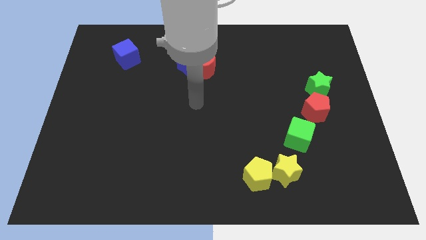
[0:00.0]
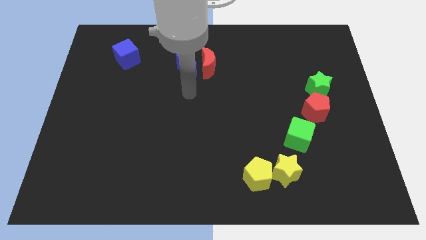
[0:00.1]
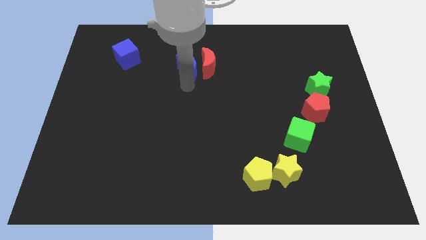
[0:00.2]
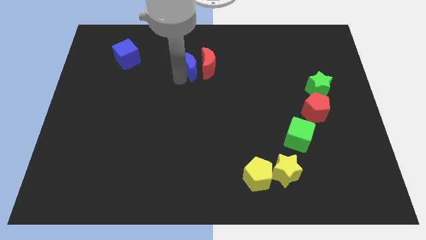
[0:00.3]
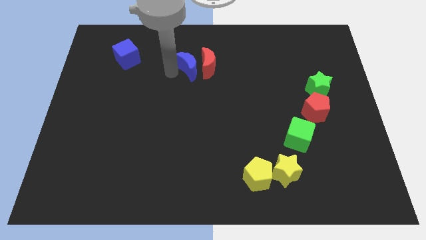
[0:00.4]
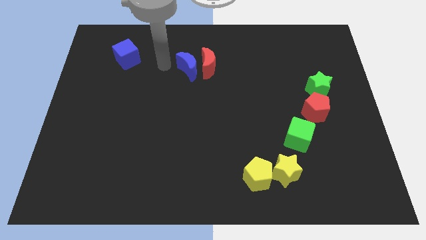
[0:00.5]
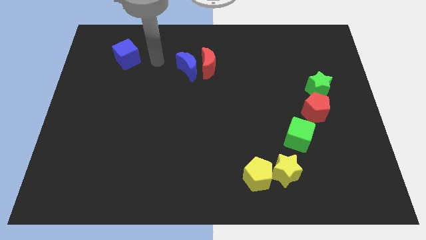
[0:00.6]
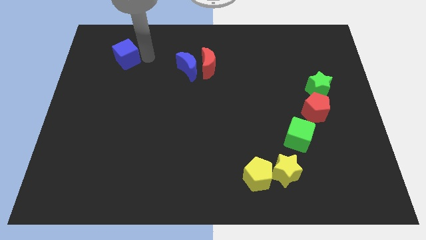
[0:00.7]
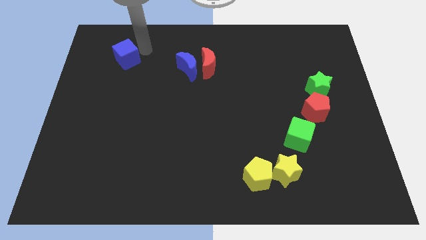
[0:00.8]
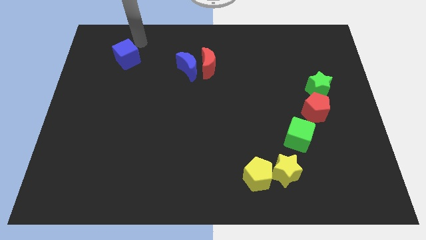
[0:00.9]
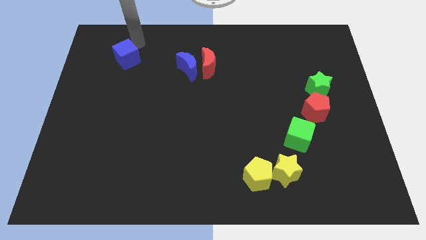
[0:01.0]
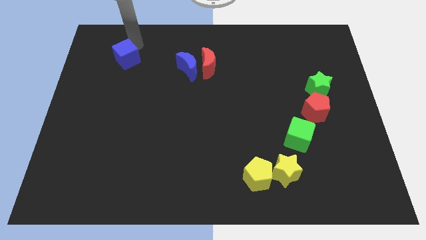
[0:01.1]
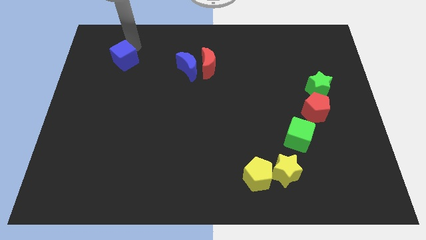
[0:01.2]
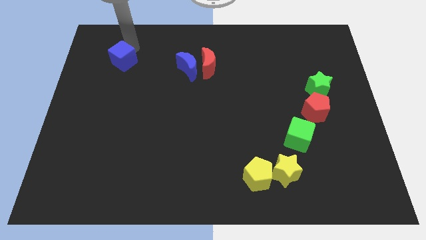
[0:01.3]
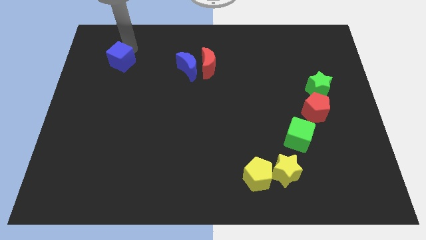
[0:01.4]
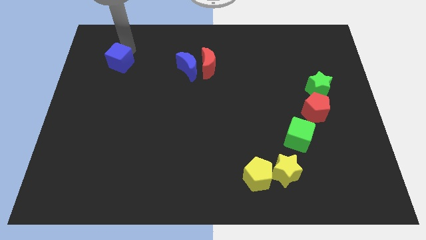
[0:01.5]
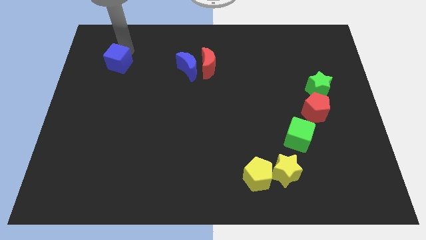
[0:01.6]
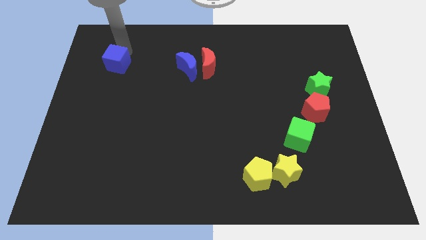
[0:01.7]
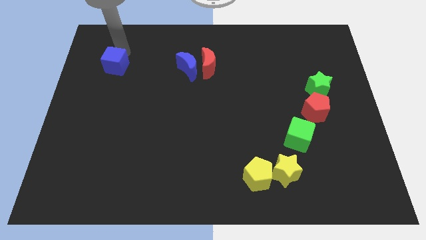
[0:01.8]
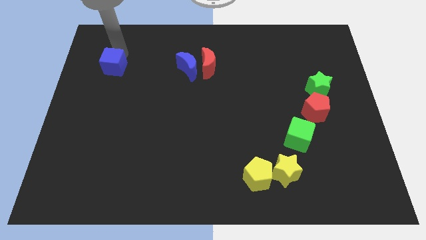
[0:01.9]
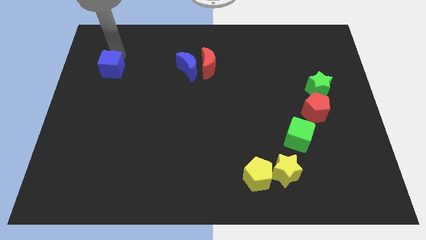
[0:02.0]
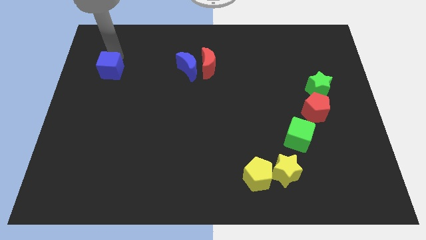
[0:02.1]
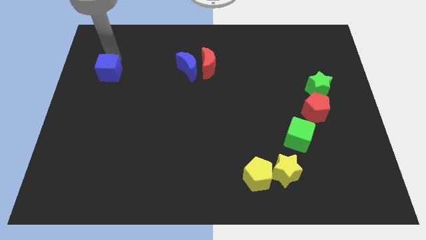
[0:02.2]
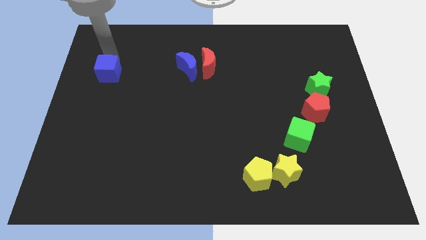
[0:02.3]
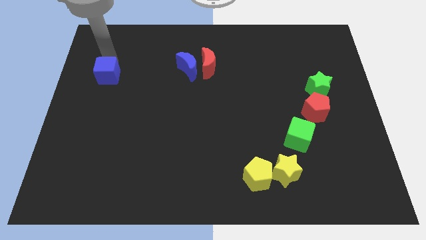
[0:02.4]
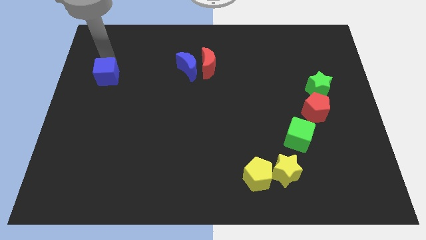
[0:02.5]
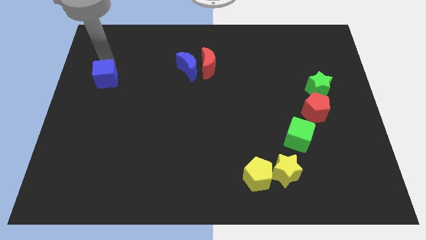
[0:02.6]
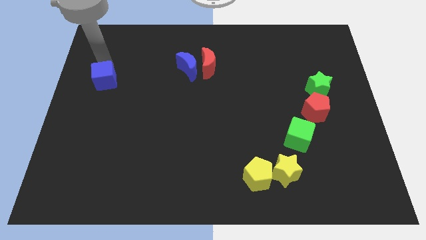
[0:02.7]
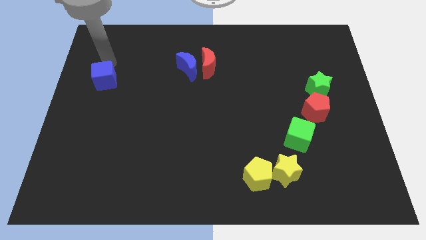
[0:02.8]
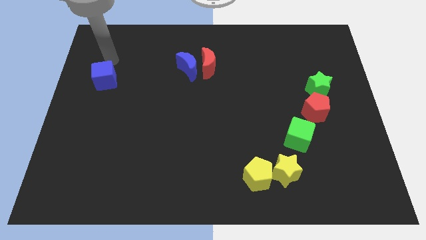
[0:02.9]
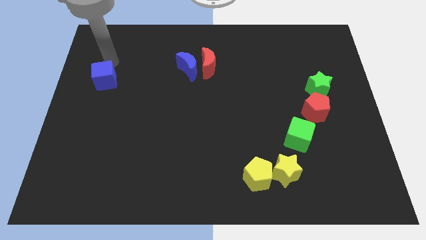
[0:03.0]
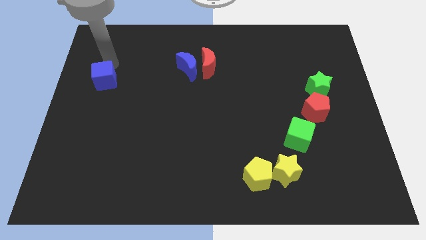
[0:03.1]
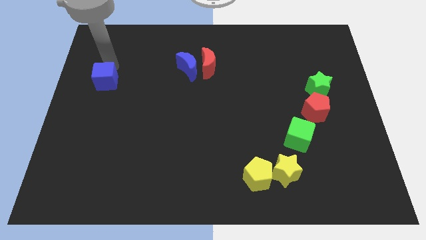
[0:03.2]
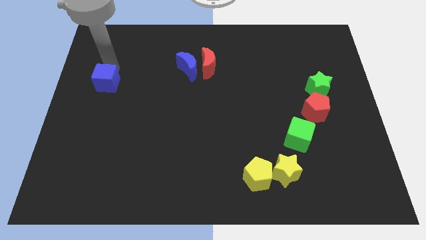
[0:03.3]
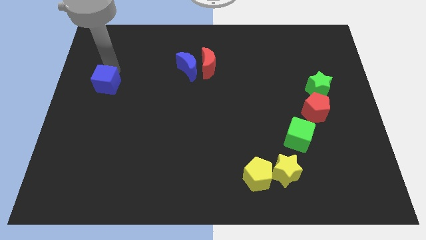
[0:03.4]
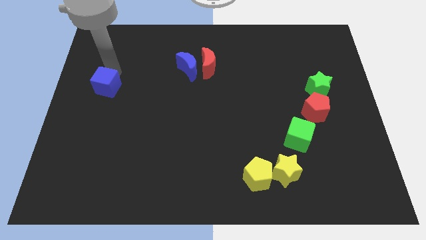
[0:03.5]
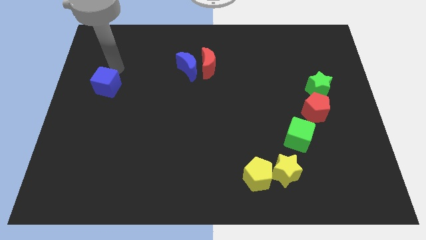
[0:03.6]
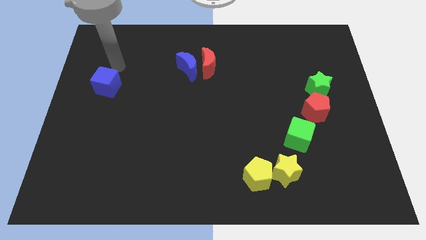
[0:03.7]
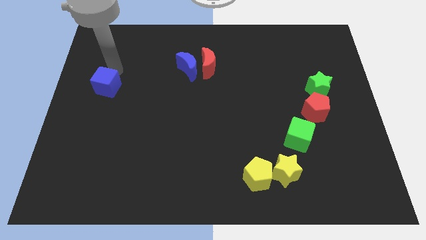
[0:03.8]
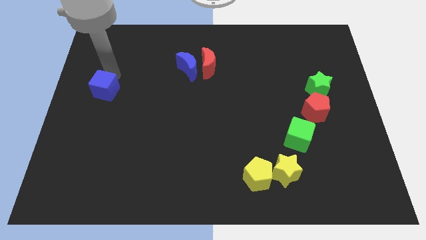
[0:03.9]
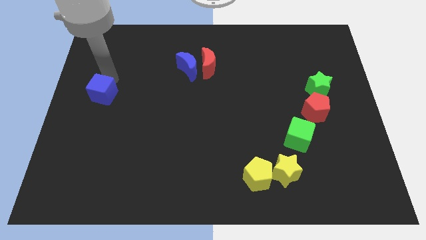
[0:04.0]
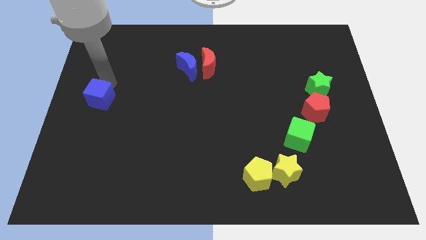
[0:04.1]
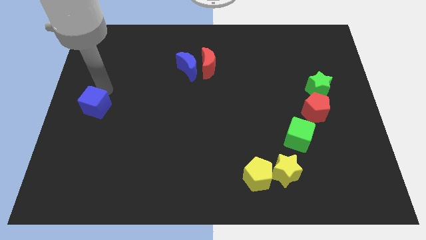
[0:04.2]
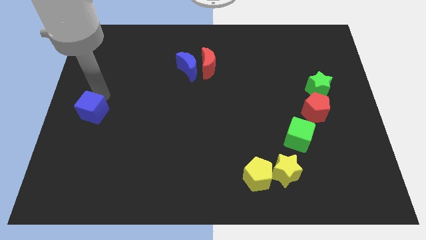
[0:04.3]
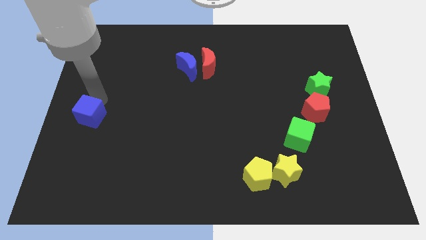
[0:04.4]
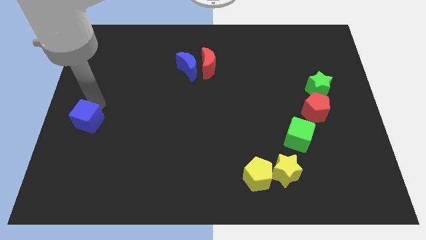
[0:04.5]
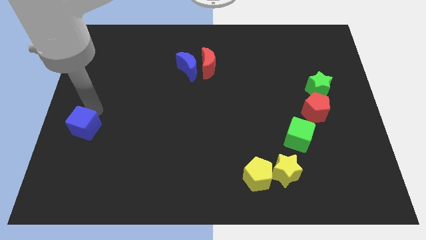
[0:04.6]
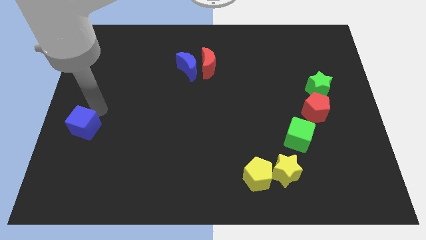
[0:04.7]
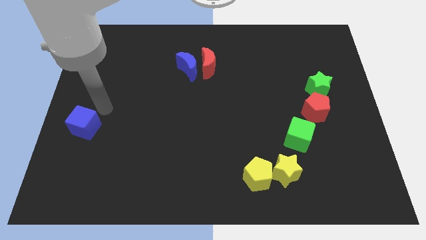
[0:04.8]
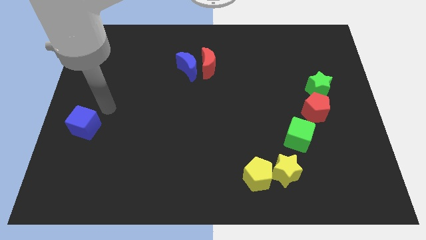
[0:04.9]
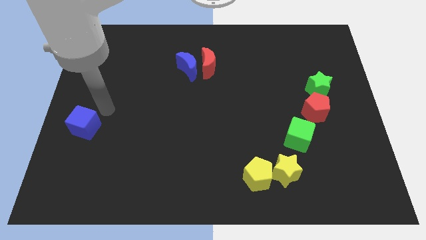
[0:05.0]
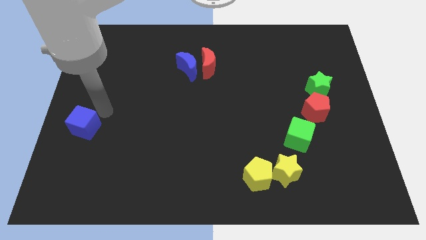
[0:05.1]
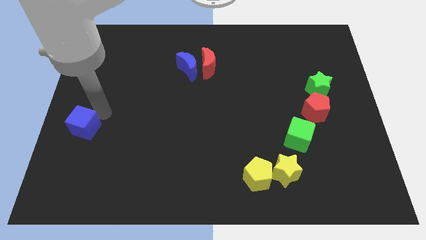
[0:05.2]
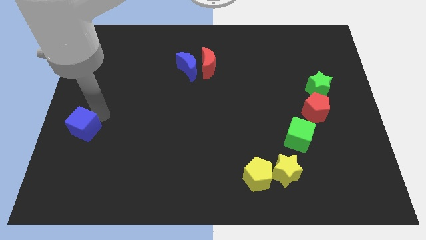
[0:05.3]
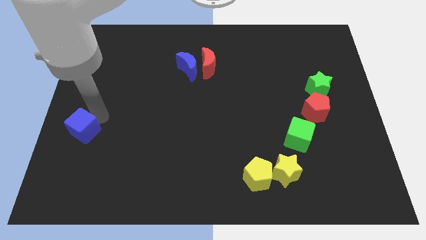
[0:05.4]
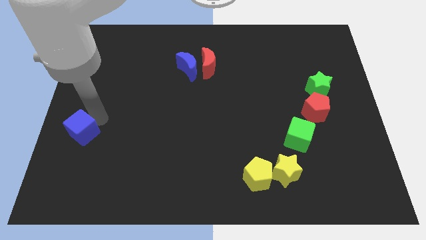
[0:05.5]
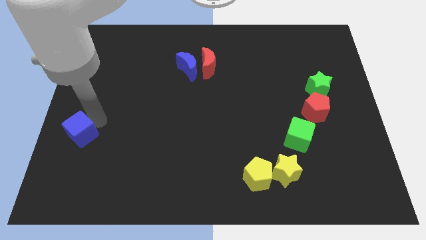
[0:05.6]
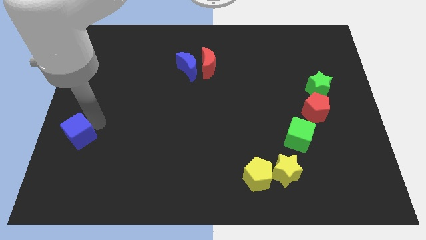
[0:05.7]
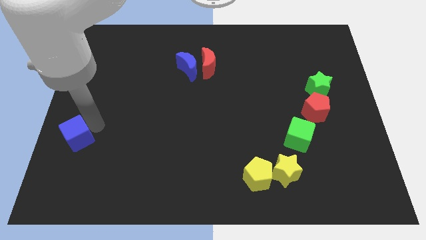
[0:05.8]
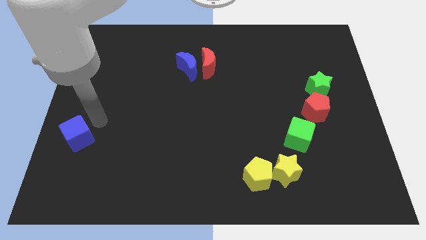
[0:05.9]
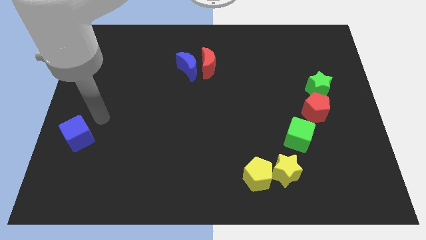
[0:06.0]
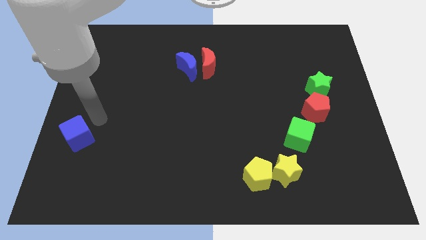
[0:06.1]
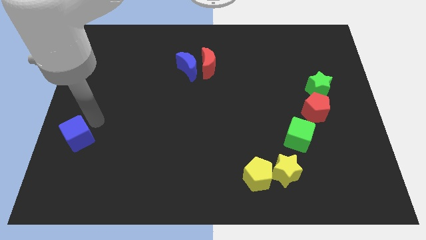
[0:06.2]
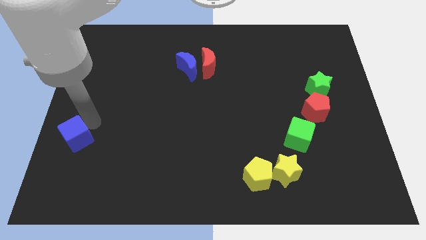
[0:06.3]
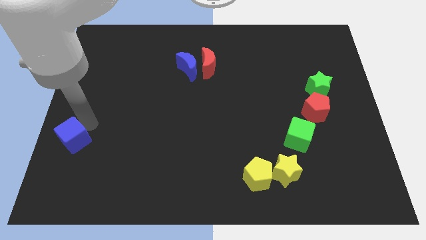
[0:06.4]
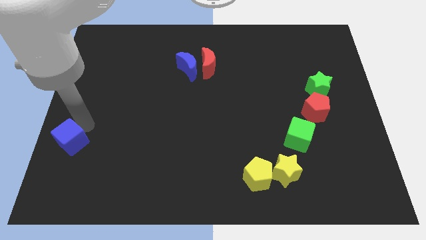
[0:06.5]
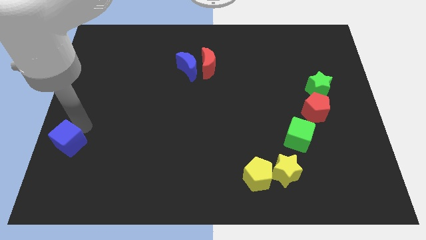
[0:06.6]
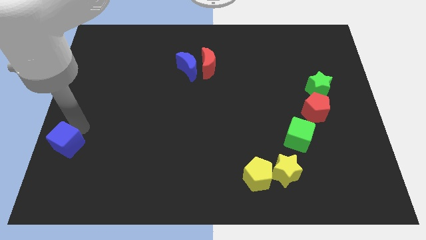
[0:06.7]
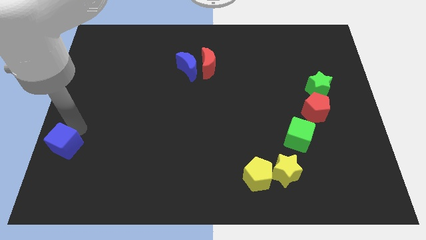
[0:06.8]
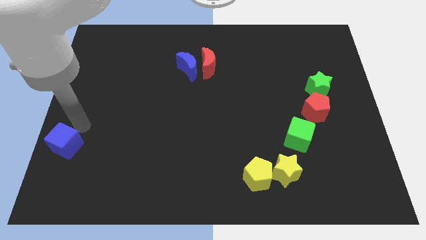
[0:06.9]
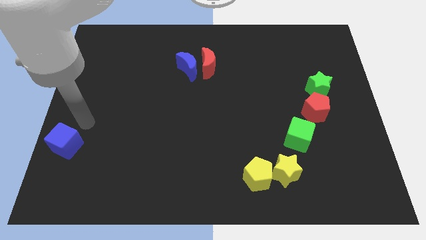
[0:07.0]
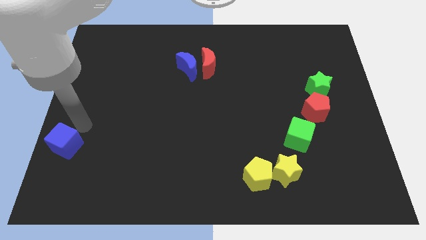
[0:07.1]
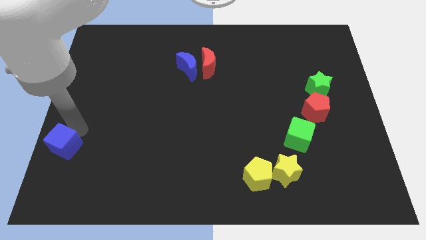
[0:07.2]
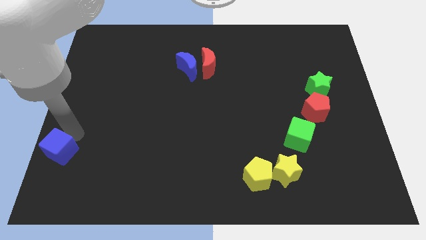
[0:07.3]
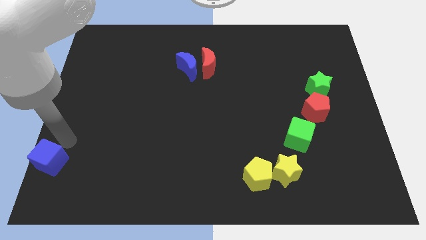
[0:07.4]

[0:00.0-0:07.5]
move the blue cube to the bottom left corner
